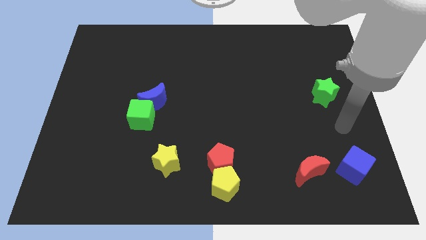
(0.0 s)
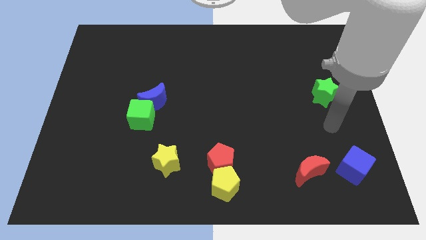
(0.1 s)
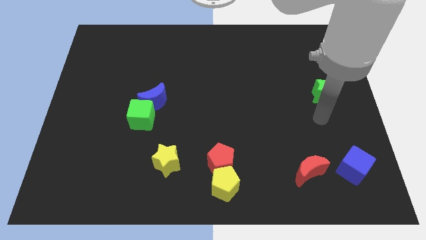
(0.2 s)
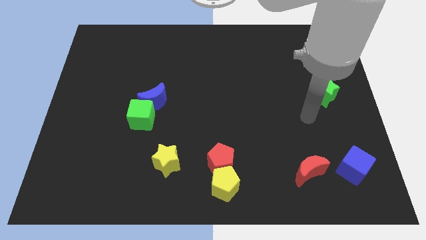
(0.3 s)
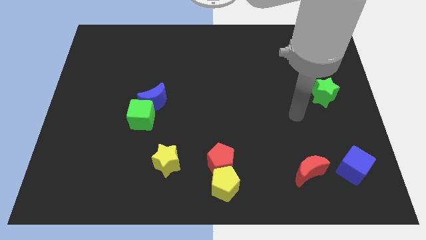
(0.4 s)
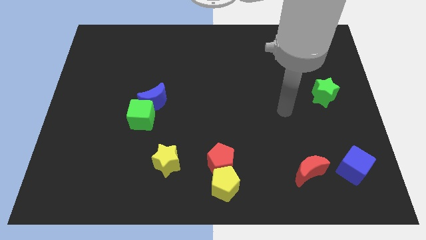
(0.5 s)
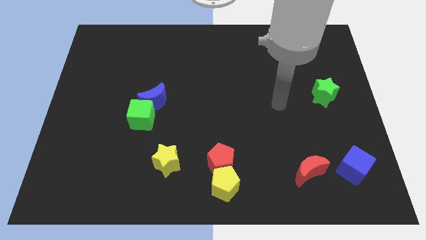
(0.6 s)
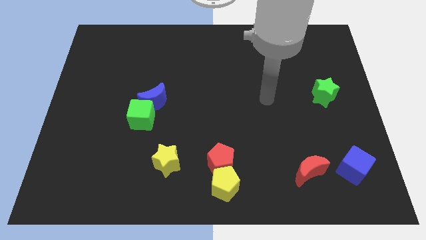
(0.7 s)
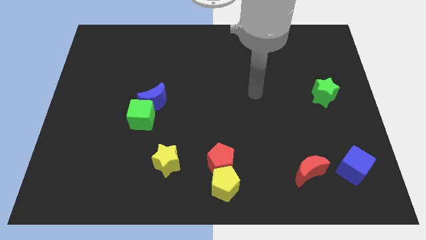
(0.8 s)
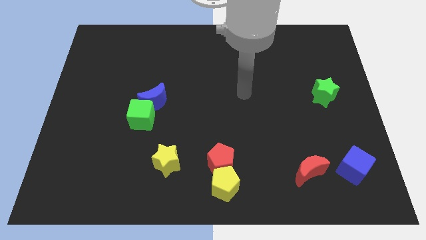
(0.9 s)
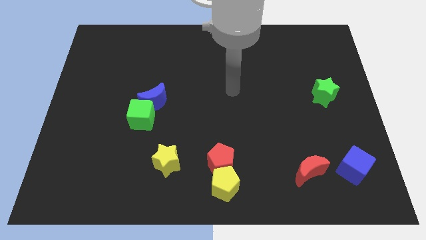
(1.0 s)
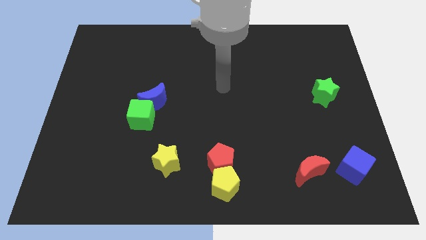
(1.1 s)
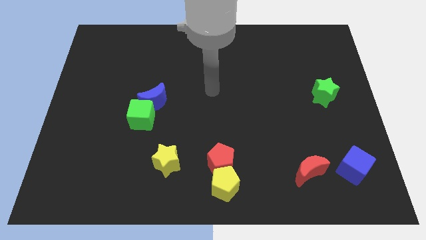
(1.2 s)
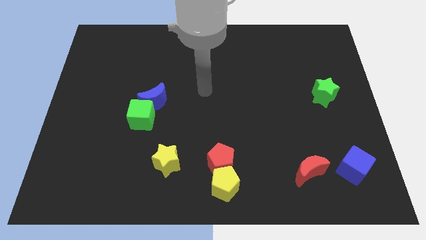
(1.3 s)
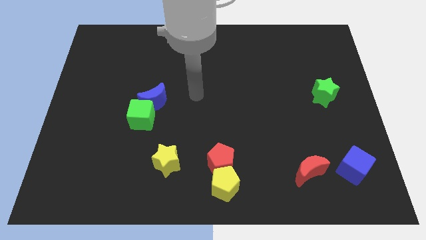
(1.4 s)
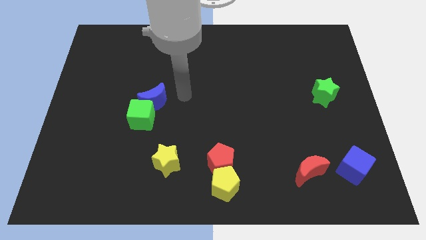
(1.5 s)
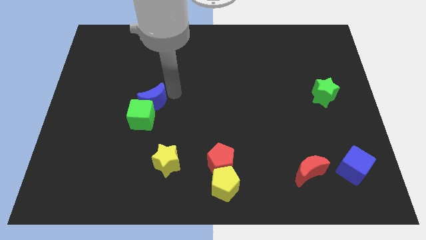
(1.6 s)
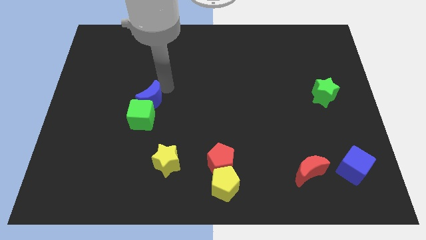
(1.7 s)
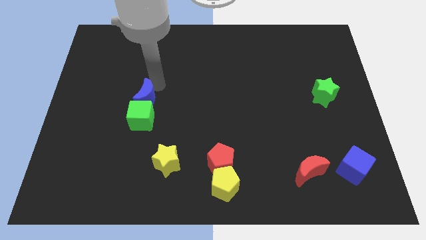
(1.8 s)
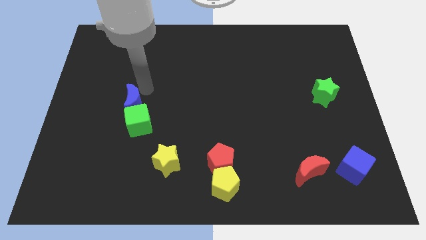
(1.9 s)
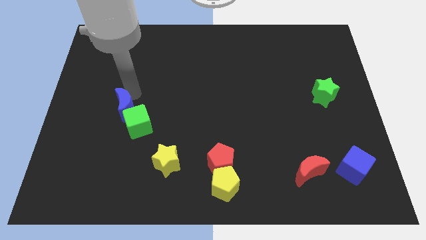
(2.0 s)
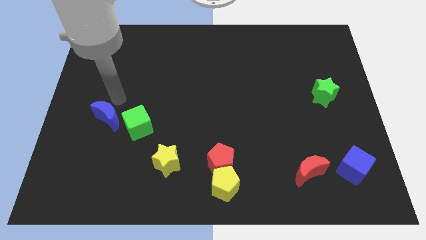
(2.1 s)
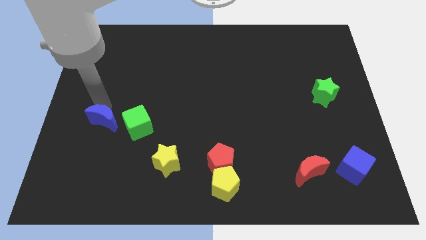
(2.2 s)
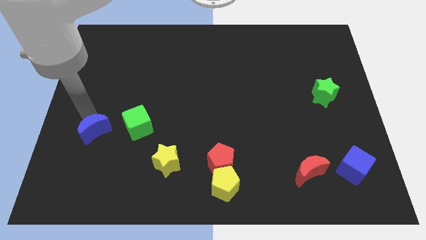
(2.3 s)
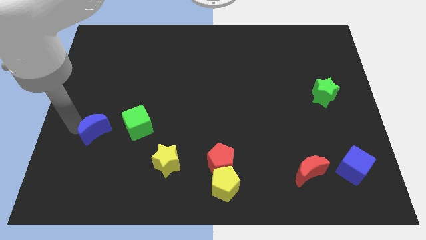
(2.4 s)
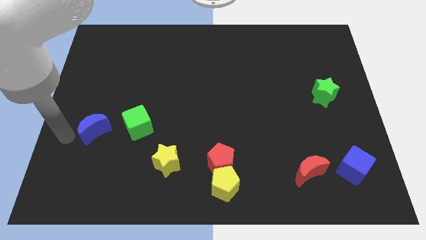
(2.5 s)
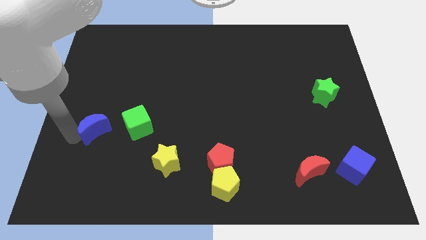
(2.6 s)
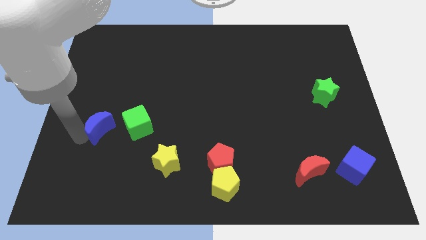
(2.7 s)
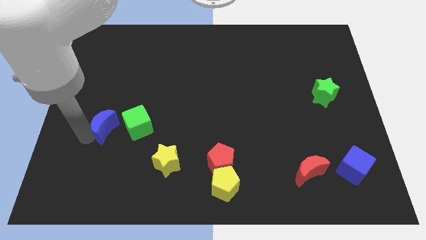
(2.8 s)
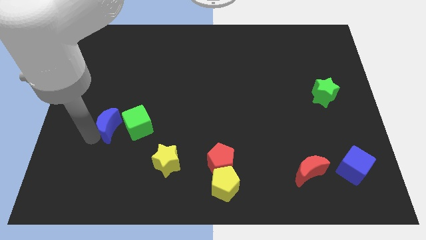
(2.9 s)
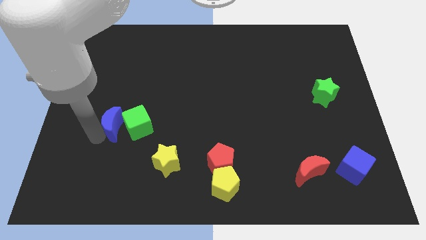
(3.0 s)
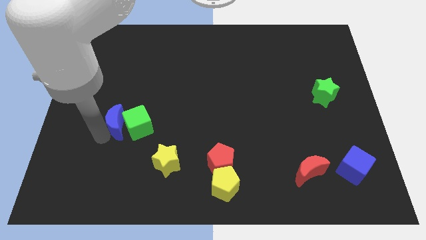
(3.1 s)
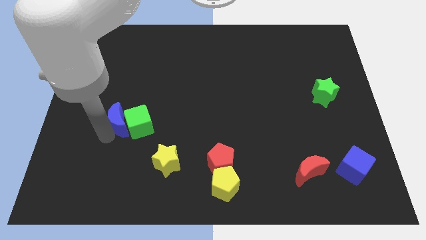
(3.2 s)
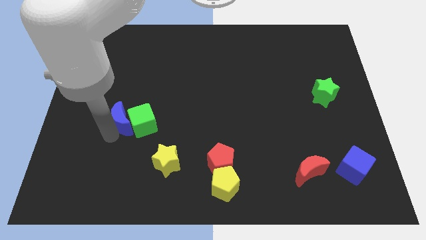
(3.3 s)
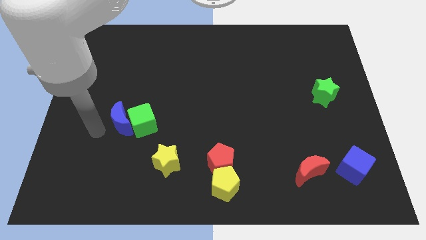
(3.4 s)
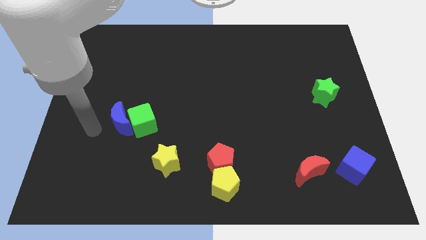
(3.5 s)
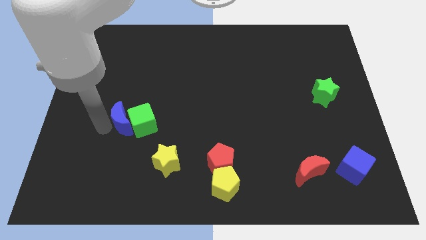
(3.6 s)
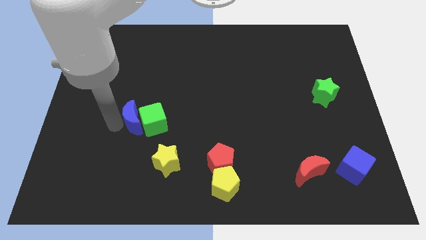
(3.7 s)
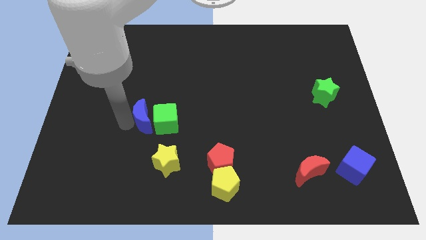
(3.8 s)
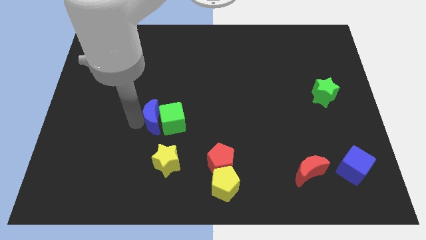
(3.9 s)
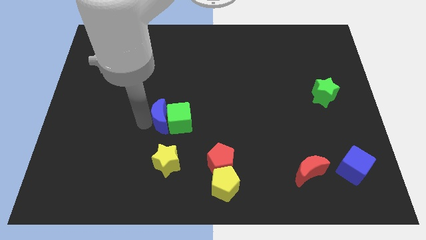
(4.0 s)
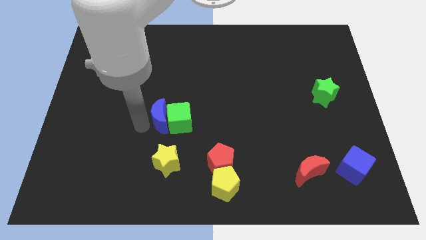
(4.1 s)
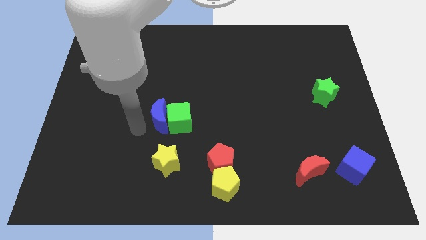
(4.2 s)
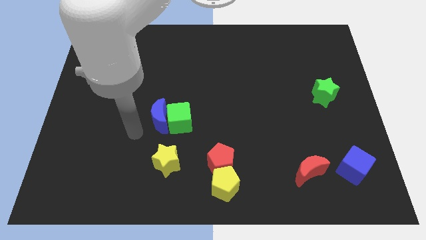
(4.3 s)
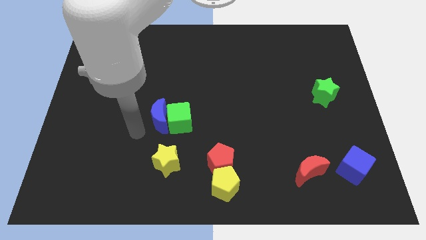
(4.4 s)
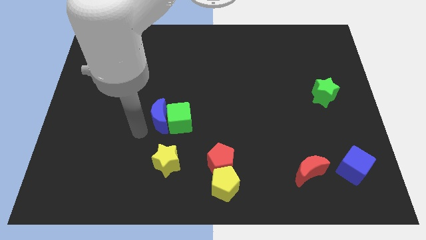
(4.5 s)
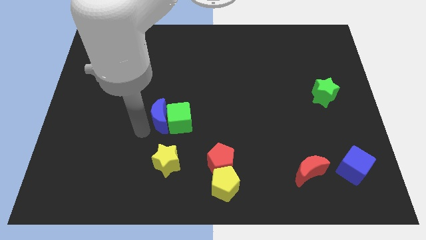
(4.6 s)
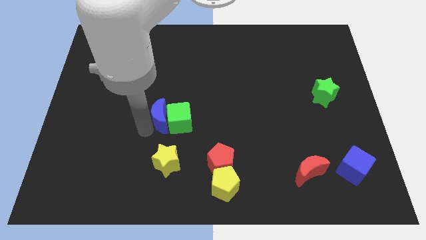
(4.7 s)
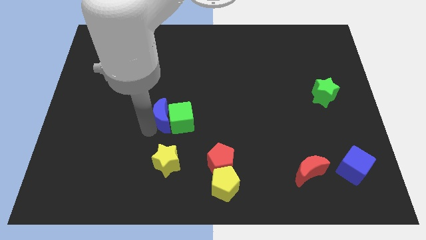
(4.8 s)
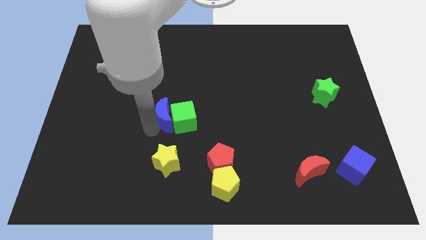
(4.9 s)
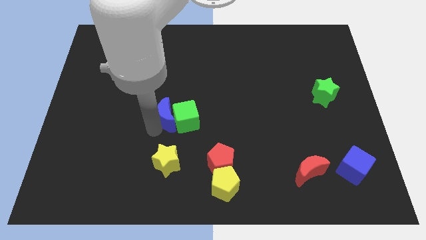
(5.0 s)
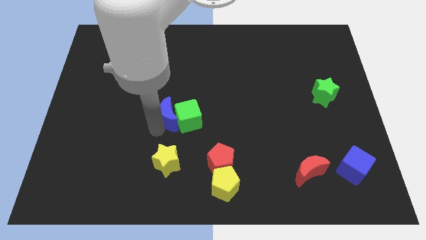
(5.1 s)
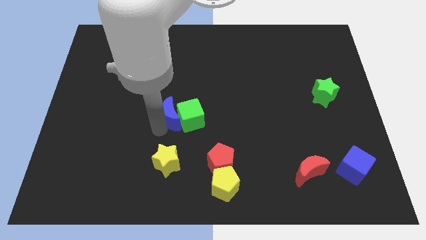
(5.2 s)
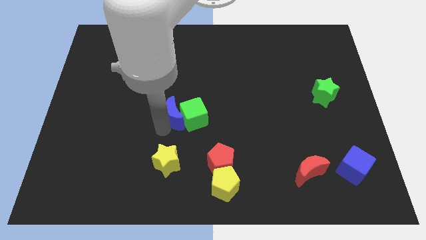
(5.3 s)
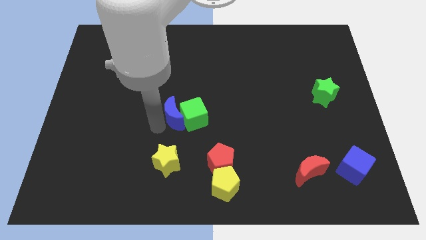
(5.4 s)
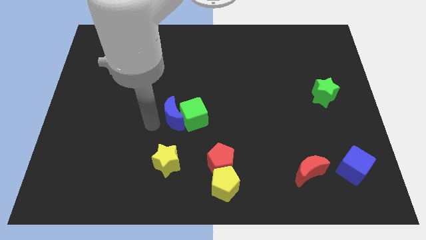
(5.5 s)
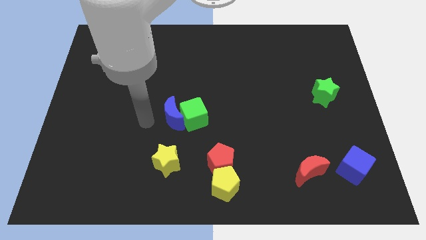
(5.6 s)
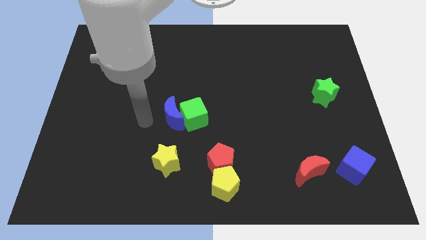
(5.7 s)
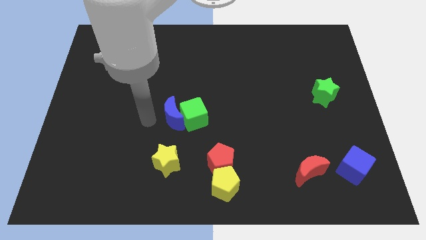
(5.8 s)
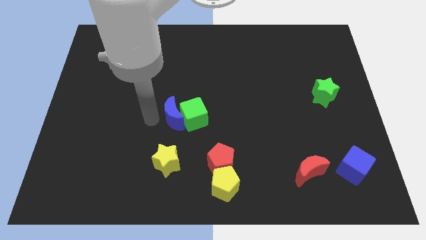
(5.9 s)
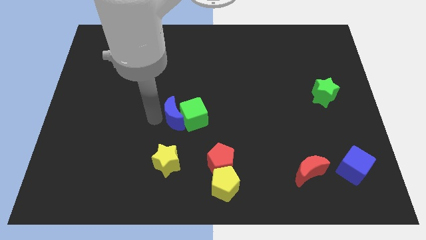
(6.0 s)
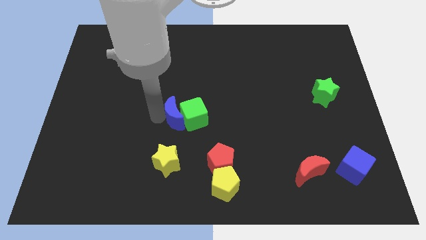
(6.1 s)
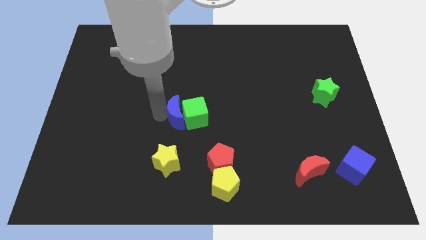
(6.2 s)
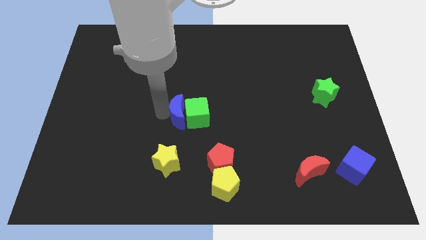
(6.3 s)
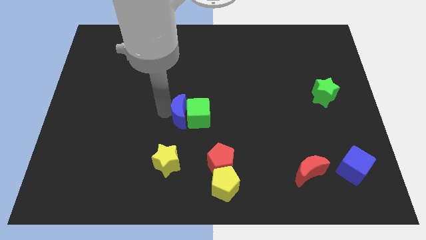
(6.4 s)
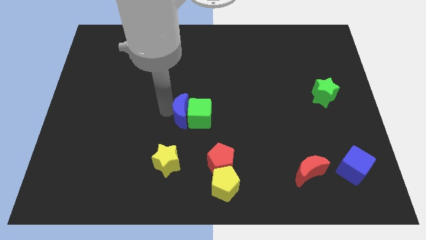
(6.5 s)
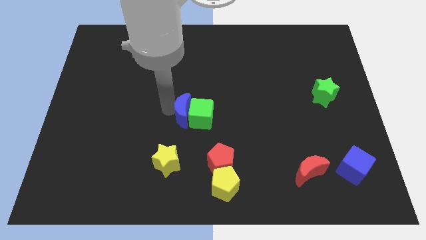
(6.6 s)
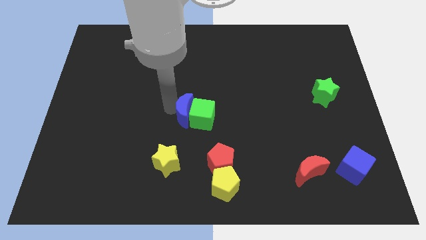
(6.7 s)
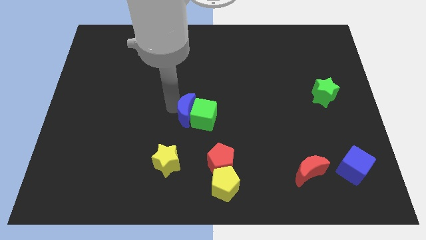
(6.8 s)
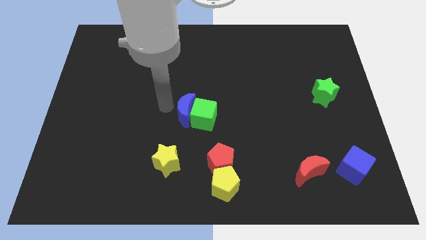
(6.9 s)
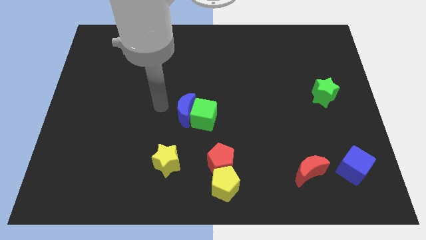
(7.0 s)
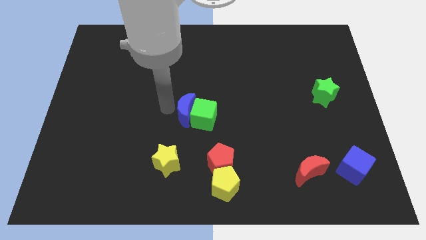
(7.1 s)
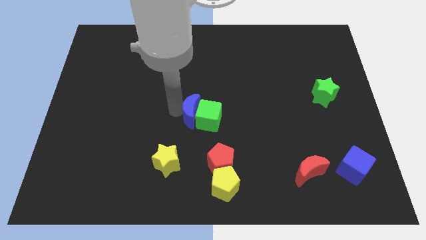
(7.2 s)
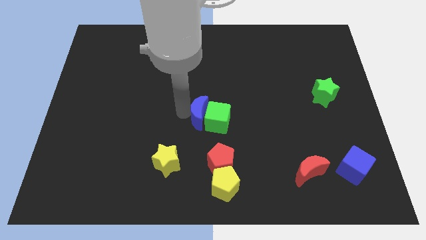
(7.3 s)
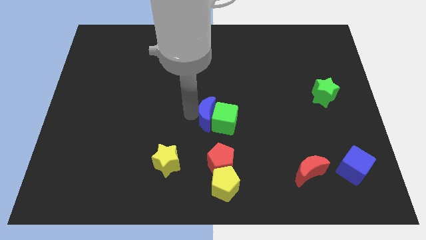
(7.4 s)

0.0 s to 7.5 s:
push the blue moon above the red pentagon
